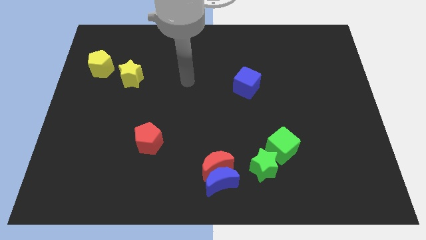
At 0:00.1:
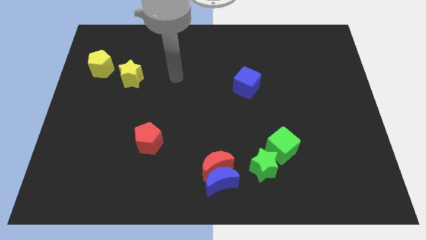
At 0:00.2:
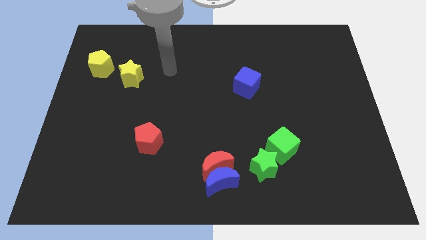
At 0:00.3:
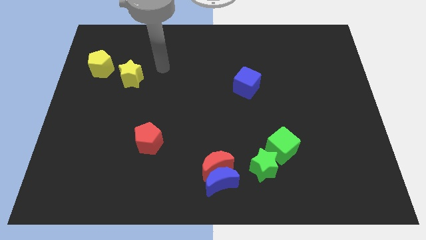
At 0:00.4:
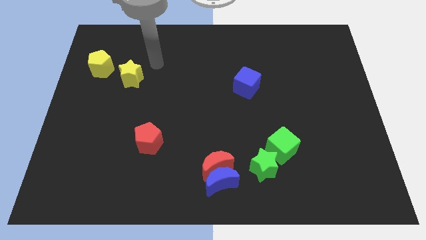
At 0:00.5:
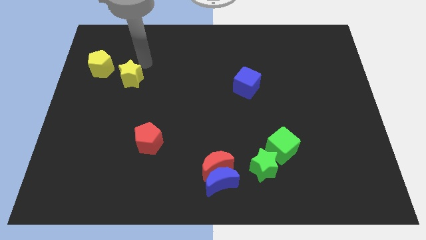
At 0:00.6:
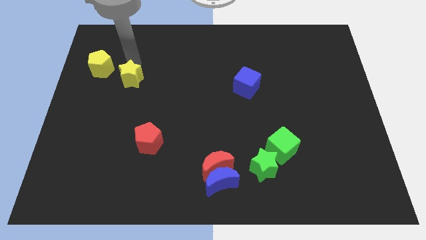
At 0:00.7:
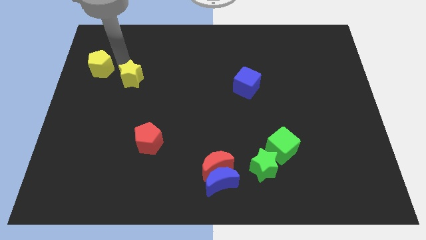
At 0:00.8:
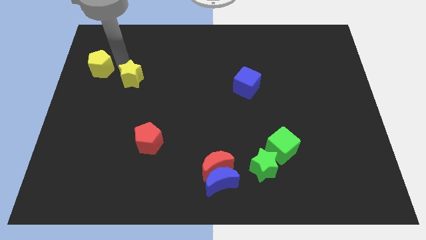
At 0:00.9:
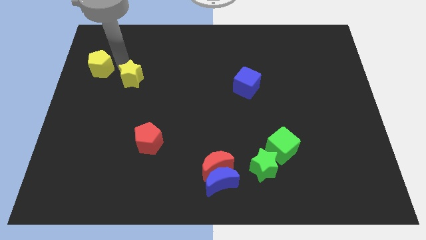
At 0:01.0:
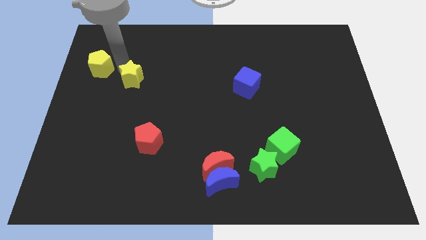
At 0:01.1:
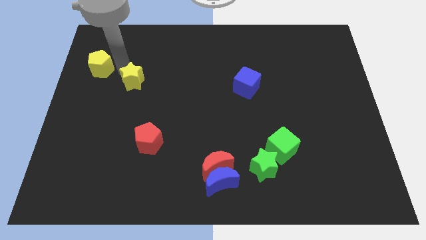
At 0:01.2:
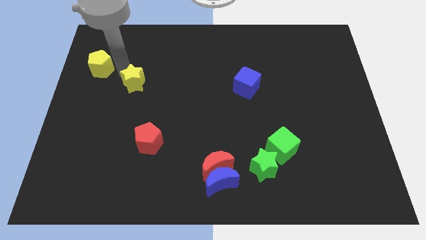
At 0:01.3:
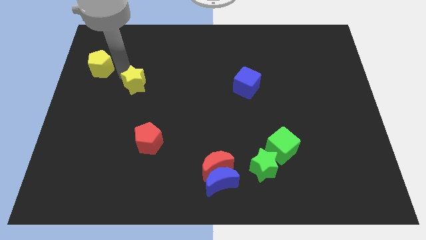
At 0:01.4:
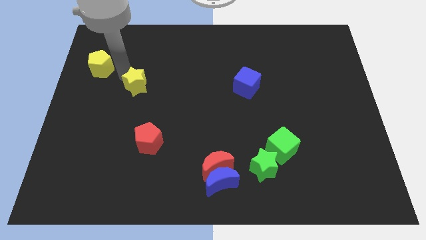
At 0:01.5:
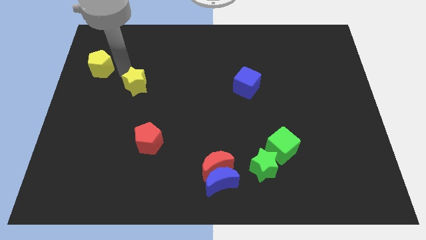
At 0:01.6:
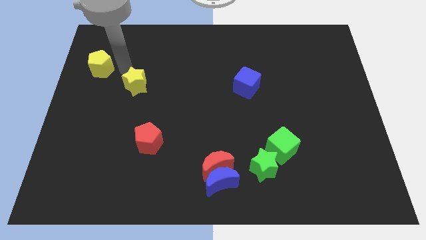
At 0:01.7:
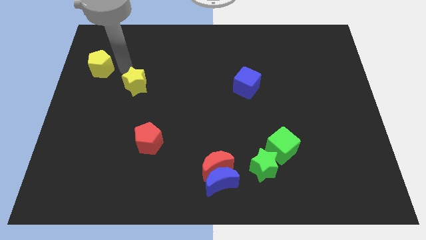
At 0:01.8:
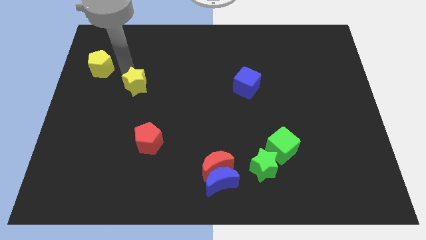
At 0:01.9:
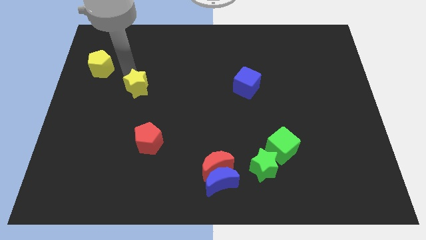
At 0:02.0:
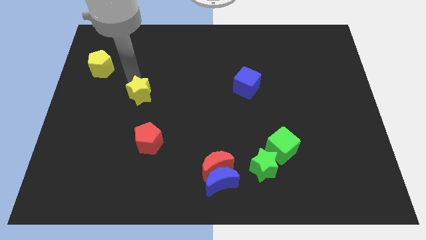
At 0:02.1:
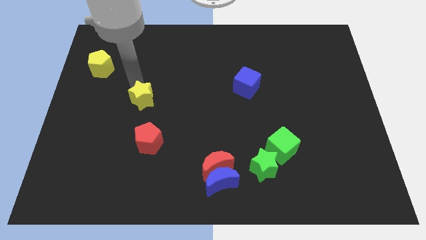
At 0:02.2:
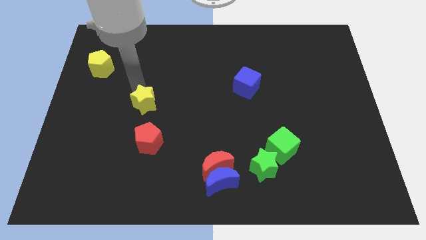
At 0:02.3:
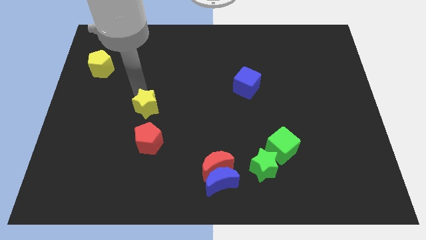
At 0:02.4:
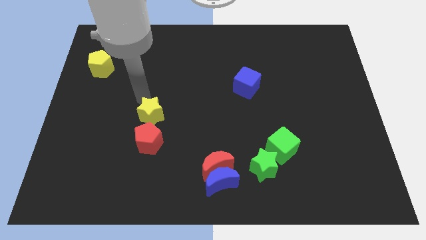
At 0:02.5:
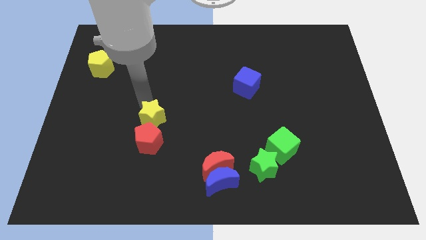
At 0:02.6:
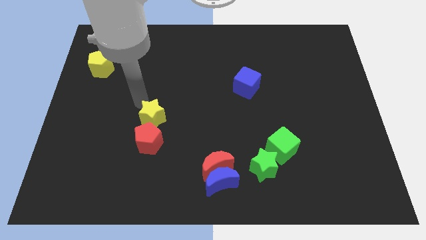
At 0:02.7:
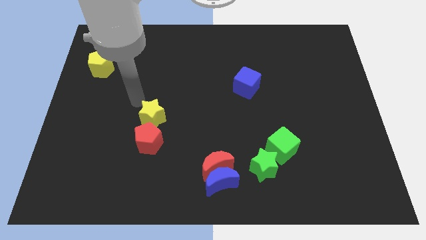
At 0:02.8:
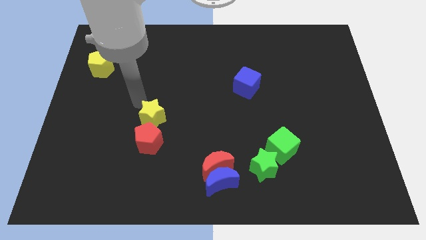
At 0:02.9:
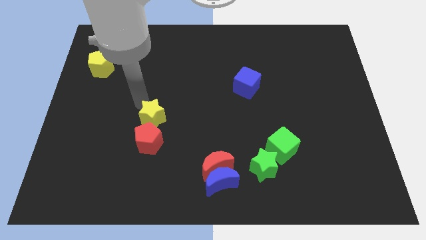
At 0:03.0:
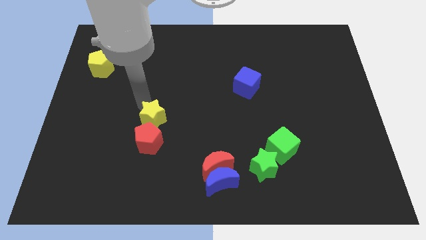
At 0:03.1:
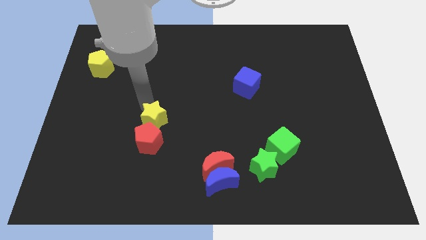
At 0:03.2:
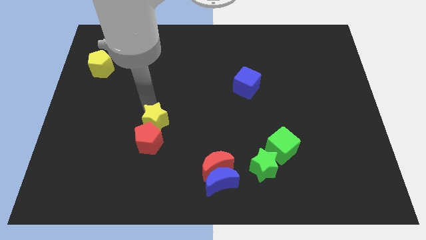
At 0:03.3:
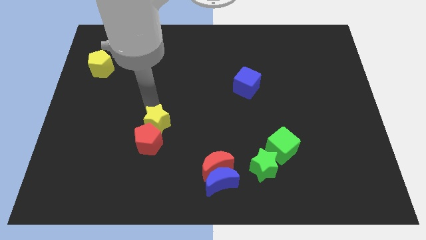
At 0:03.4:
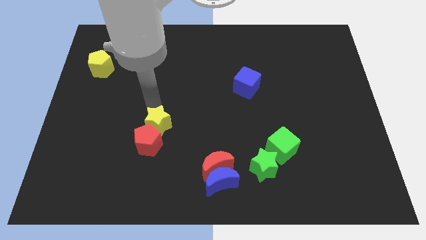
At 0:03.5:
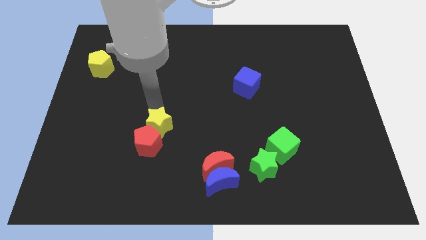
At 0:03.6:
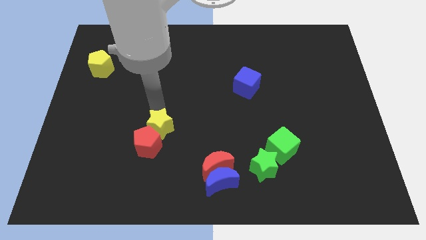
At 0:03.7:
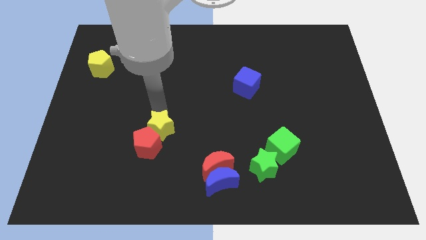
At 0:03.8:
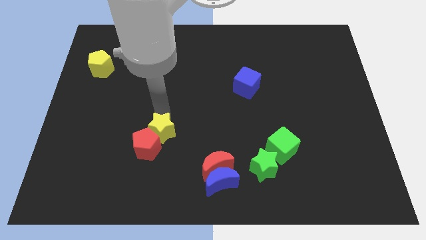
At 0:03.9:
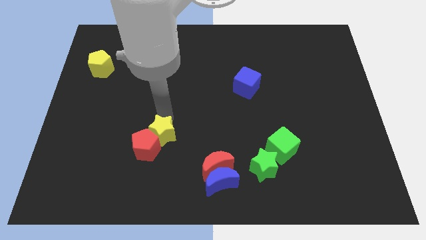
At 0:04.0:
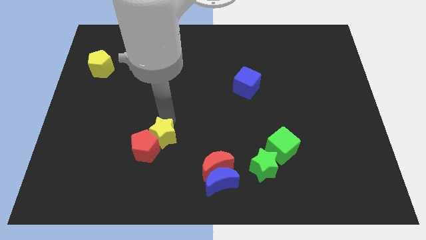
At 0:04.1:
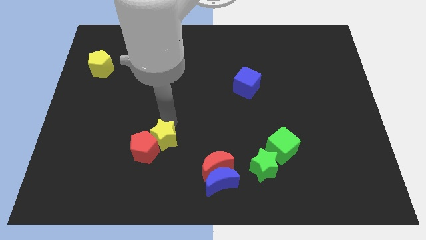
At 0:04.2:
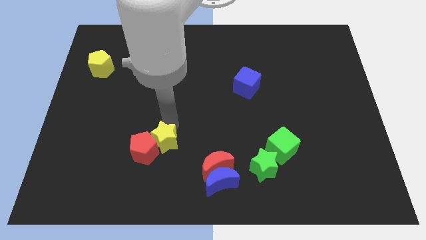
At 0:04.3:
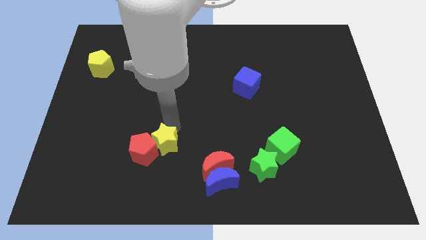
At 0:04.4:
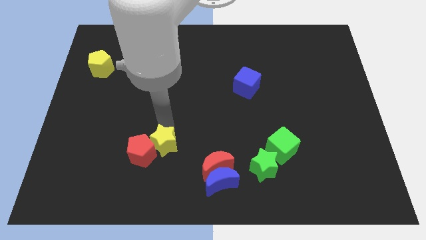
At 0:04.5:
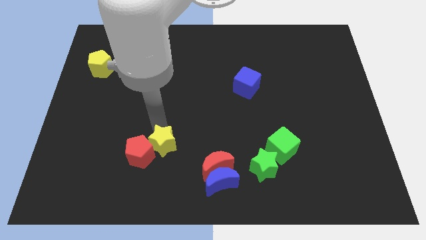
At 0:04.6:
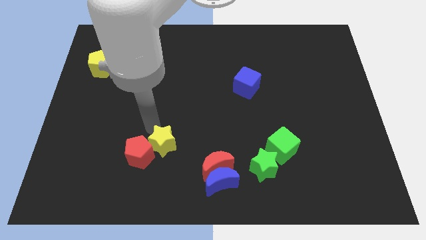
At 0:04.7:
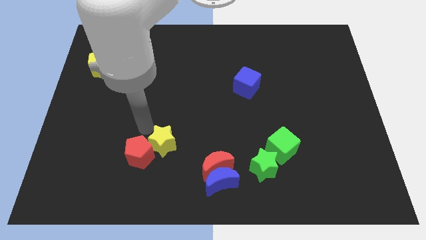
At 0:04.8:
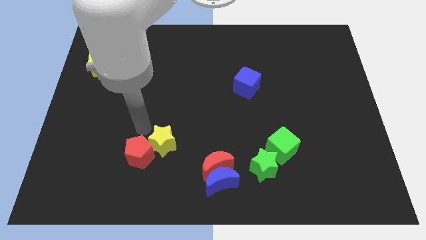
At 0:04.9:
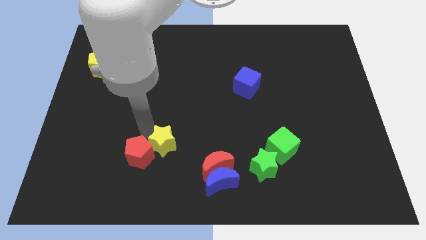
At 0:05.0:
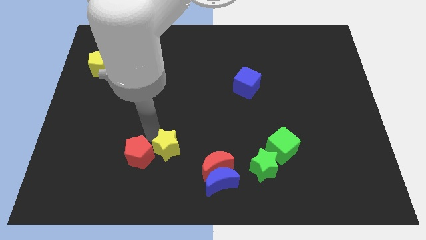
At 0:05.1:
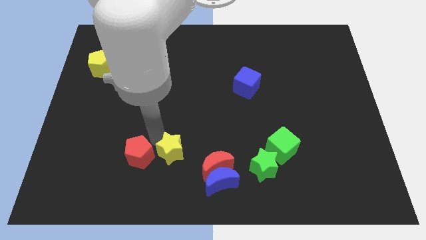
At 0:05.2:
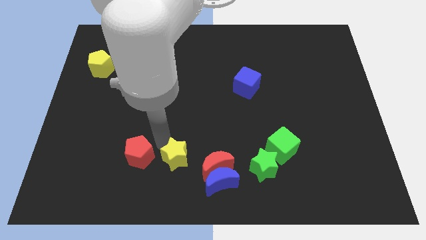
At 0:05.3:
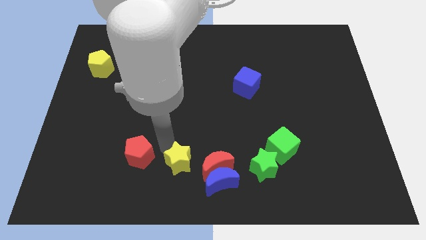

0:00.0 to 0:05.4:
slide the yellow star to the bottom side

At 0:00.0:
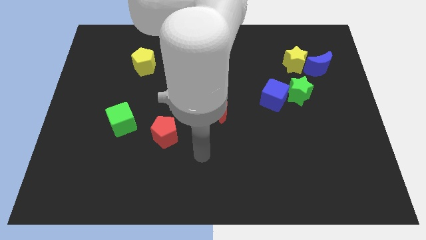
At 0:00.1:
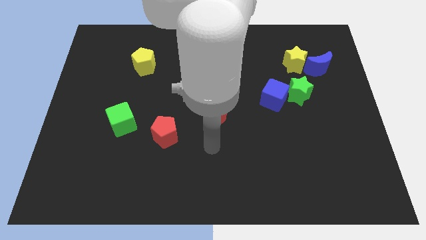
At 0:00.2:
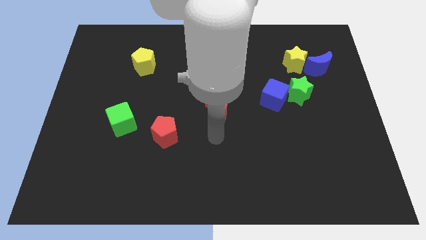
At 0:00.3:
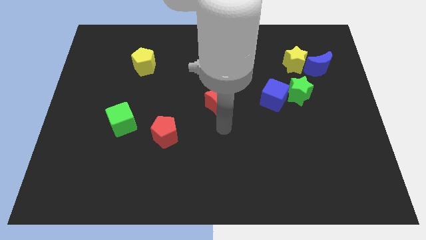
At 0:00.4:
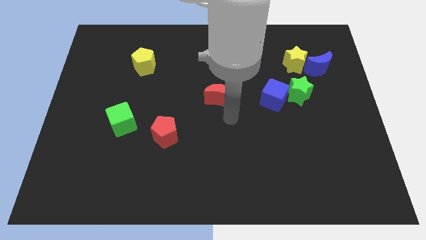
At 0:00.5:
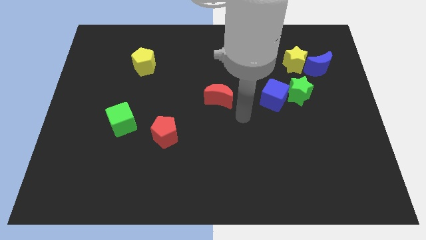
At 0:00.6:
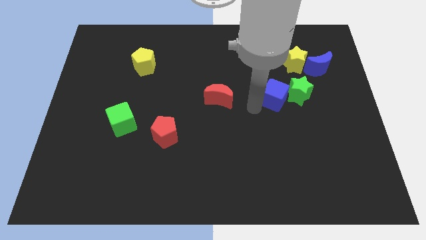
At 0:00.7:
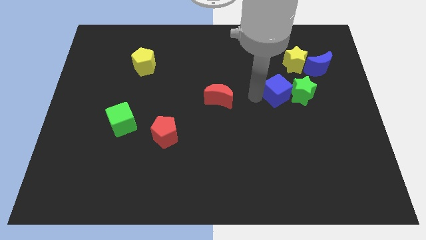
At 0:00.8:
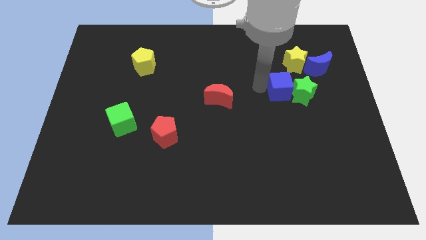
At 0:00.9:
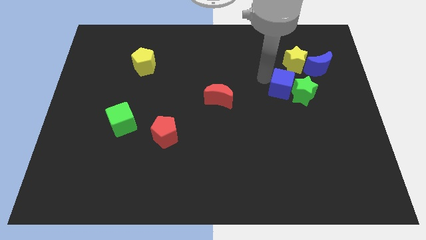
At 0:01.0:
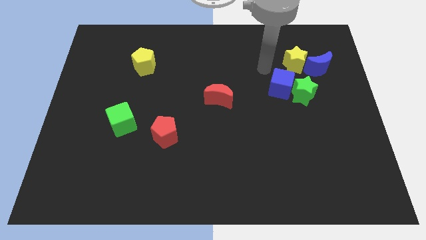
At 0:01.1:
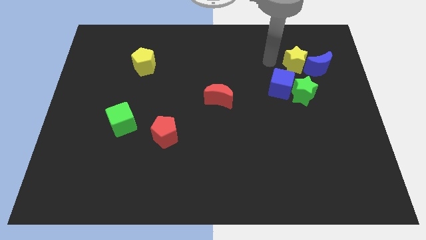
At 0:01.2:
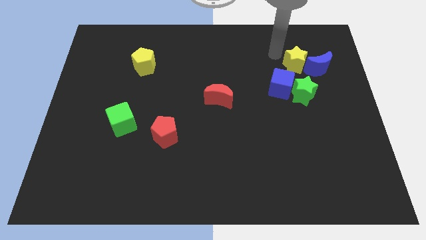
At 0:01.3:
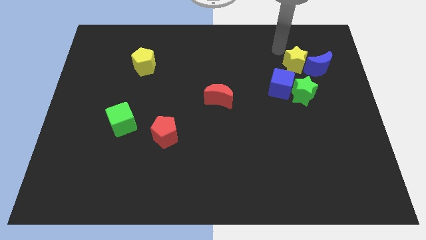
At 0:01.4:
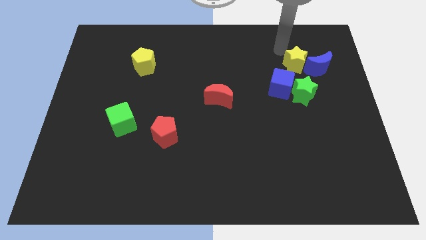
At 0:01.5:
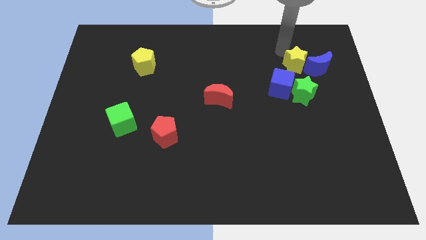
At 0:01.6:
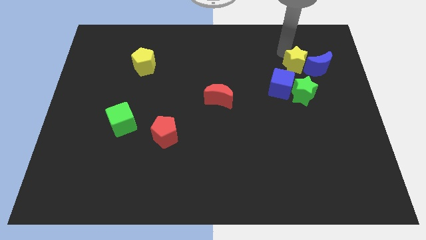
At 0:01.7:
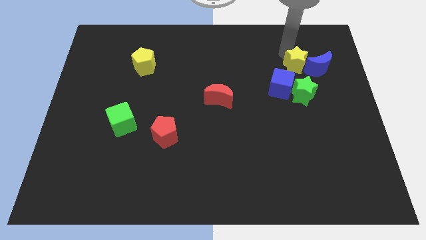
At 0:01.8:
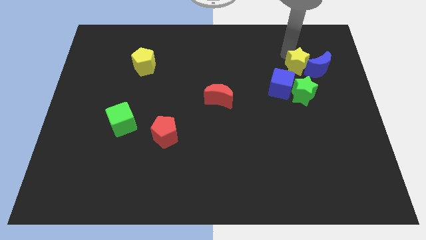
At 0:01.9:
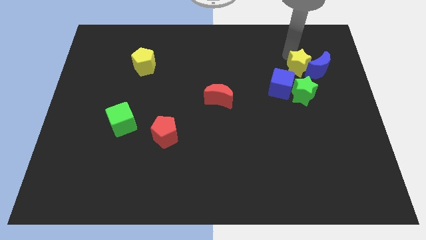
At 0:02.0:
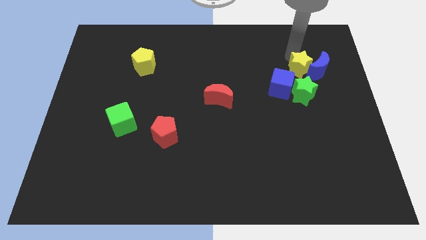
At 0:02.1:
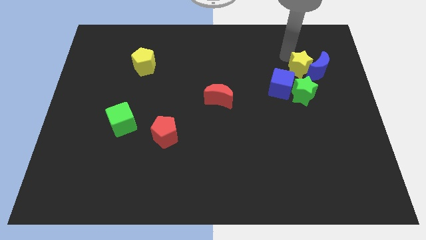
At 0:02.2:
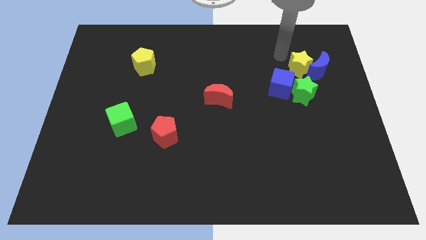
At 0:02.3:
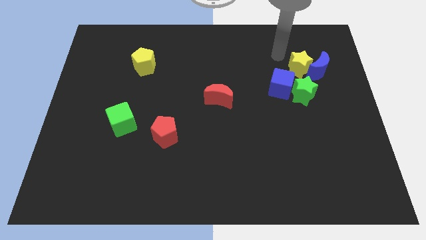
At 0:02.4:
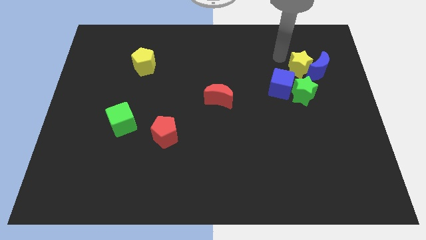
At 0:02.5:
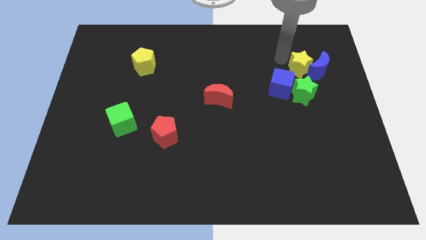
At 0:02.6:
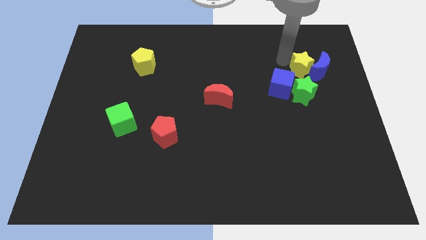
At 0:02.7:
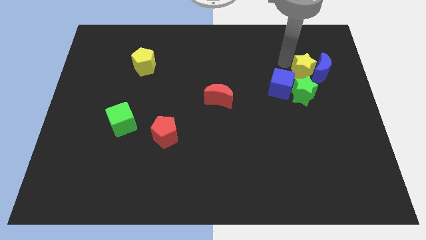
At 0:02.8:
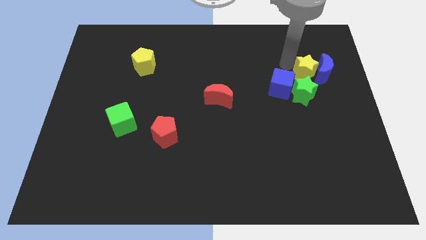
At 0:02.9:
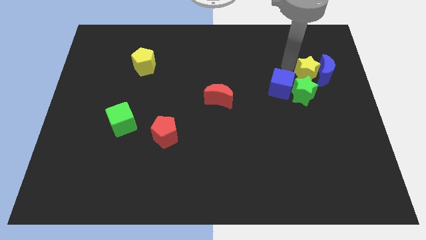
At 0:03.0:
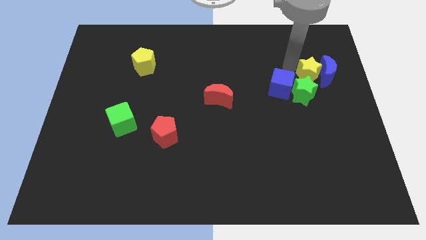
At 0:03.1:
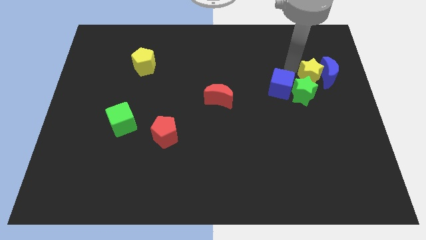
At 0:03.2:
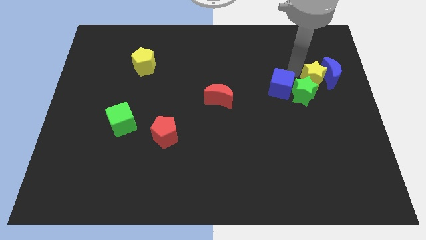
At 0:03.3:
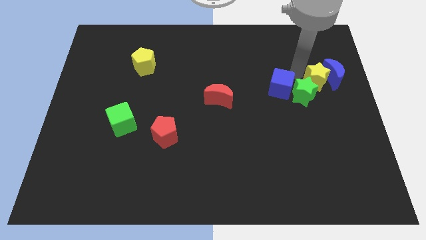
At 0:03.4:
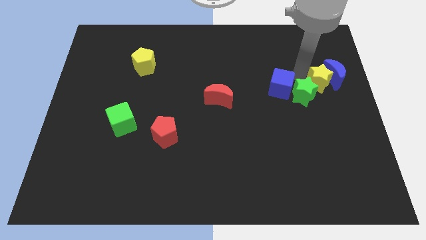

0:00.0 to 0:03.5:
slide the yellow star to the center right
